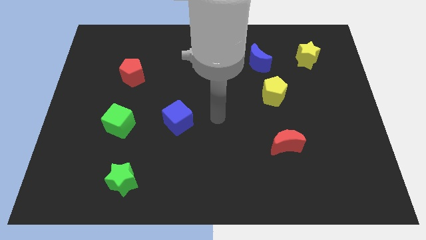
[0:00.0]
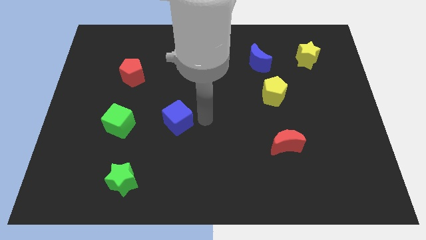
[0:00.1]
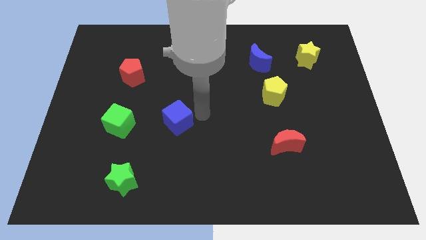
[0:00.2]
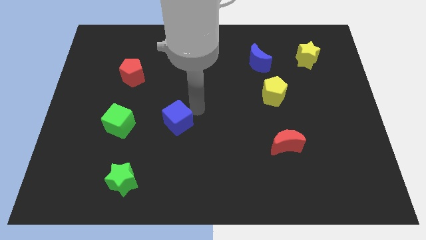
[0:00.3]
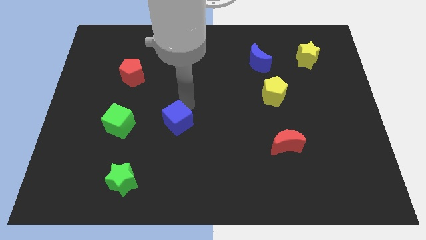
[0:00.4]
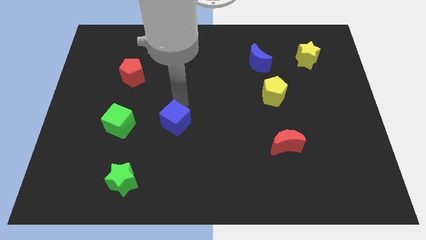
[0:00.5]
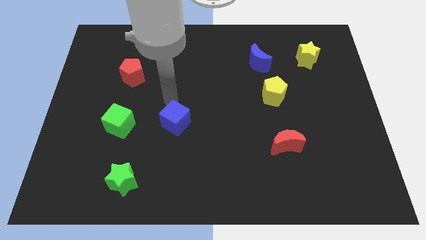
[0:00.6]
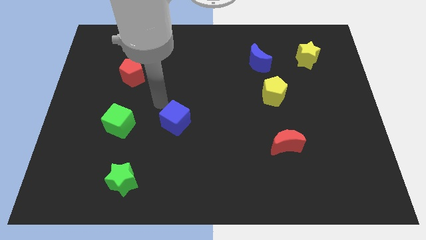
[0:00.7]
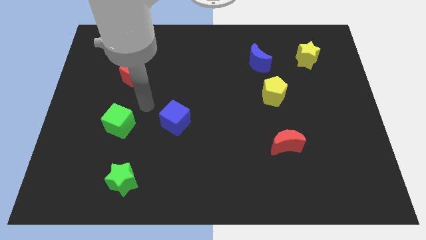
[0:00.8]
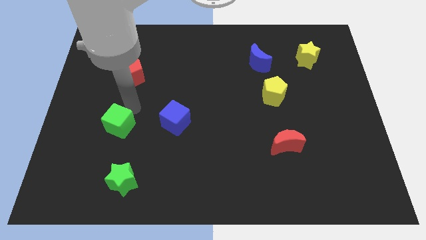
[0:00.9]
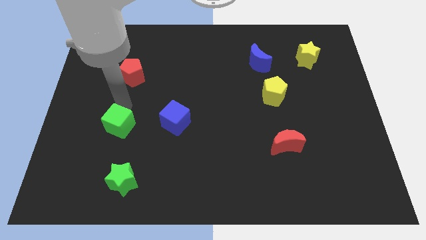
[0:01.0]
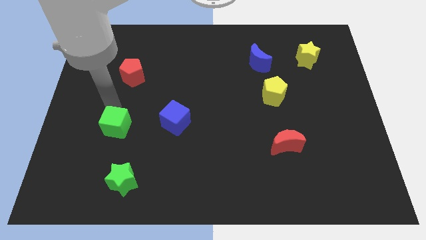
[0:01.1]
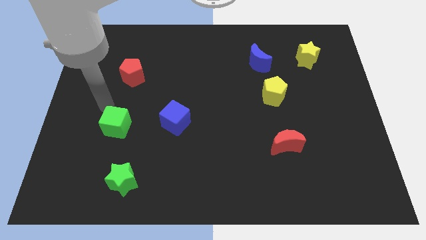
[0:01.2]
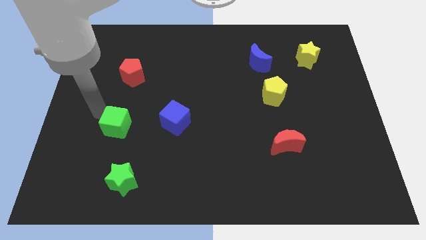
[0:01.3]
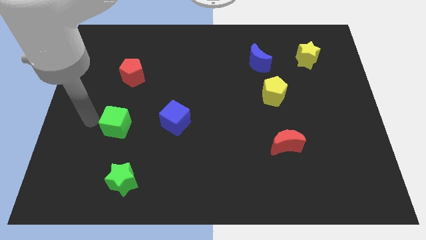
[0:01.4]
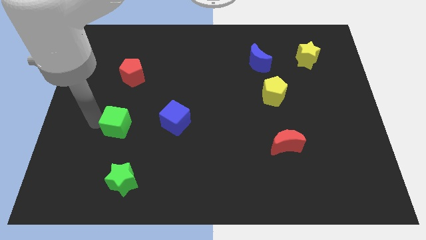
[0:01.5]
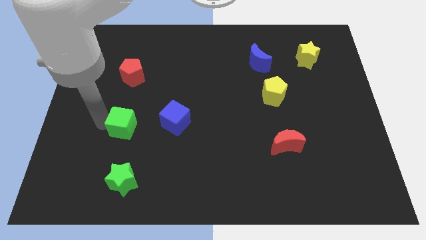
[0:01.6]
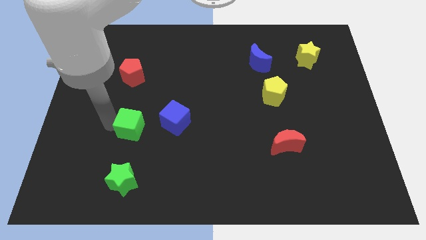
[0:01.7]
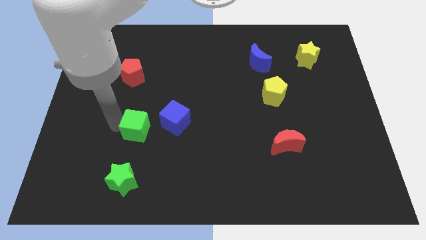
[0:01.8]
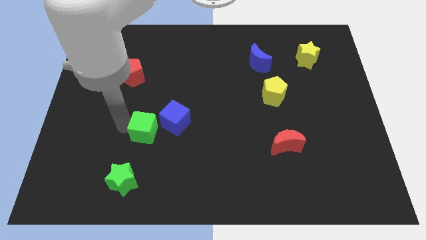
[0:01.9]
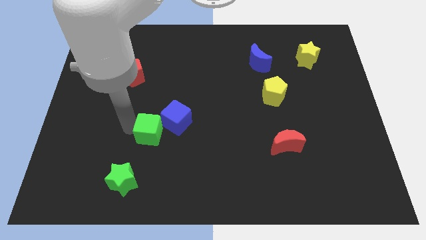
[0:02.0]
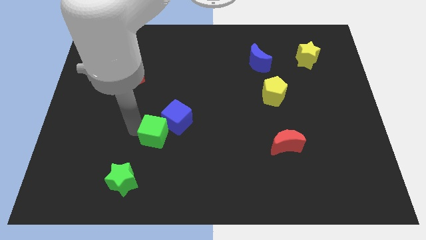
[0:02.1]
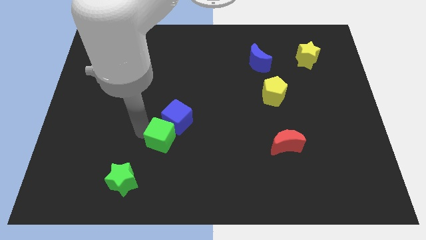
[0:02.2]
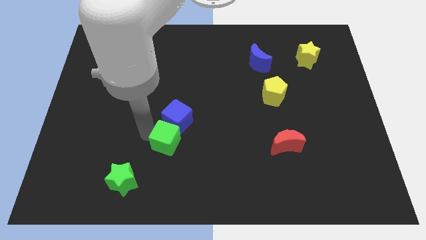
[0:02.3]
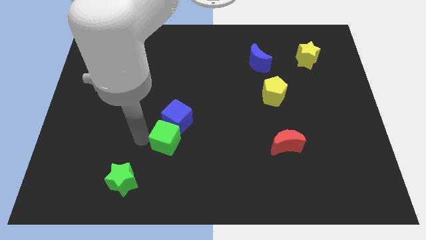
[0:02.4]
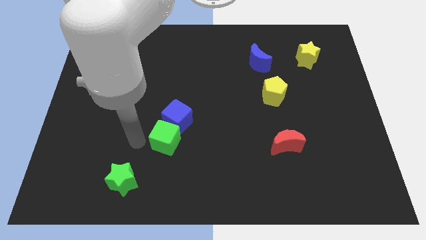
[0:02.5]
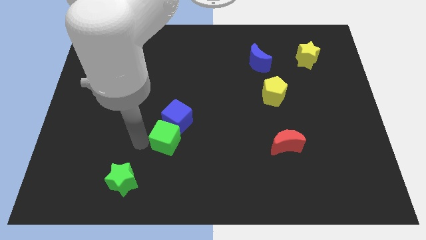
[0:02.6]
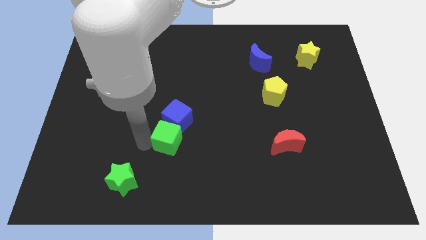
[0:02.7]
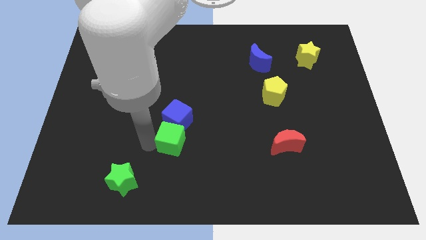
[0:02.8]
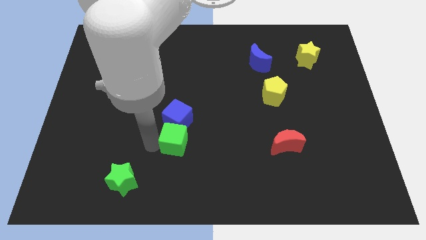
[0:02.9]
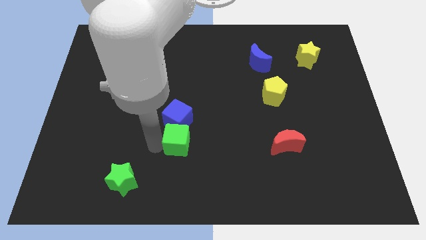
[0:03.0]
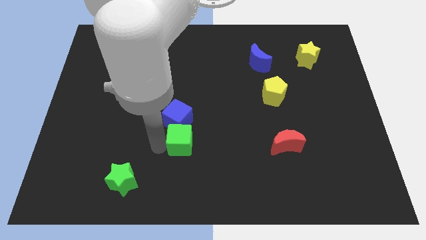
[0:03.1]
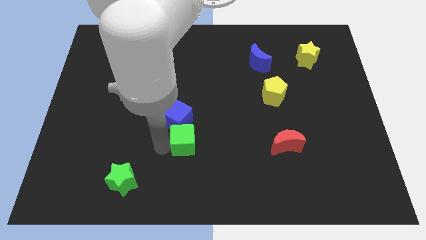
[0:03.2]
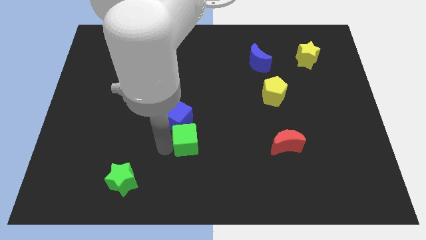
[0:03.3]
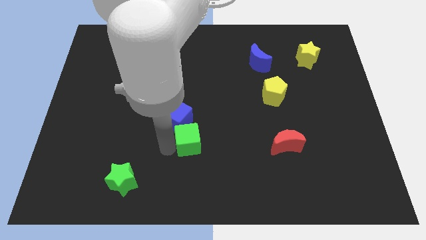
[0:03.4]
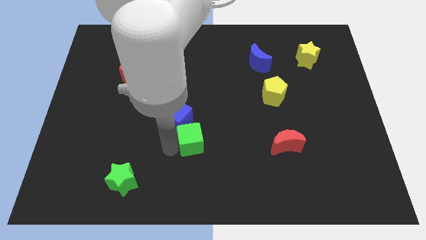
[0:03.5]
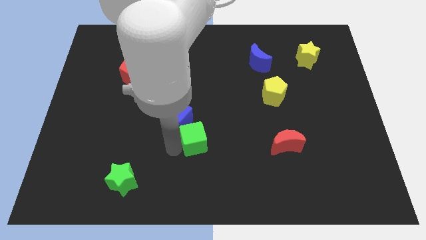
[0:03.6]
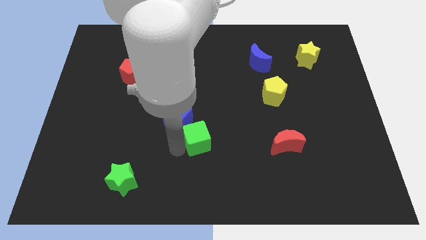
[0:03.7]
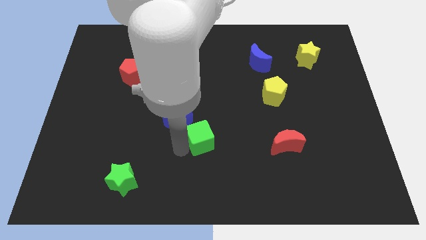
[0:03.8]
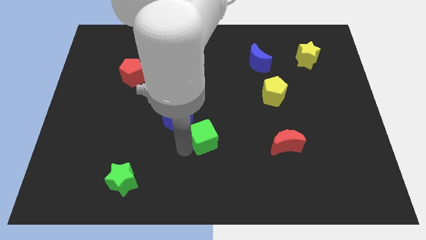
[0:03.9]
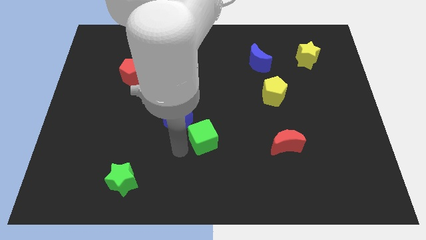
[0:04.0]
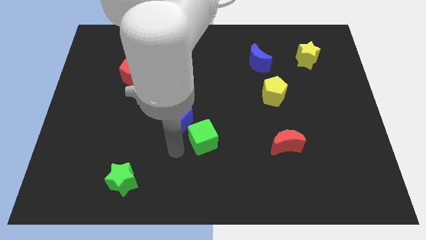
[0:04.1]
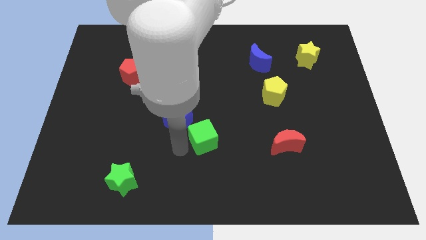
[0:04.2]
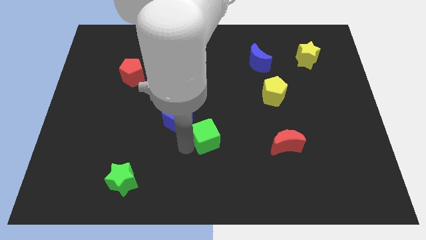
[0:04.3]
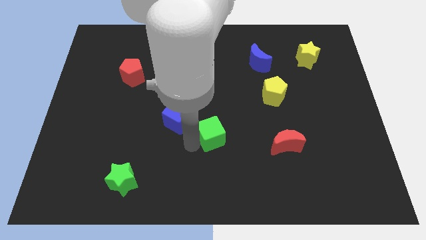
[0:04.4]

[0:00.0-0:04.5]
slide the green cube to the right

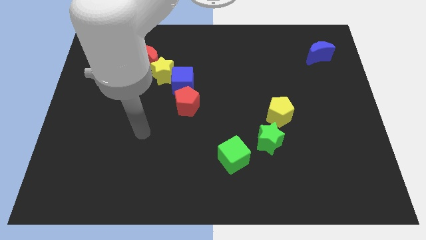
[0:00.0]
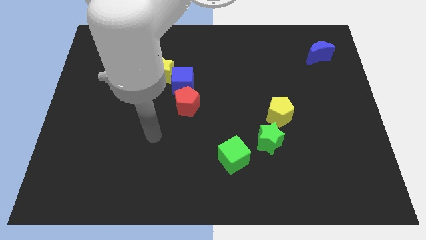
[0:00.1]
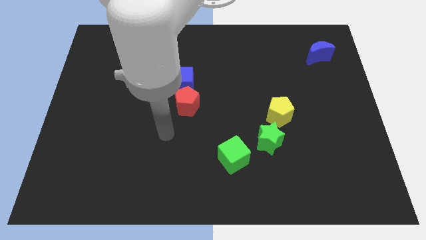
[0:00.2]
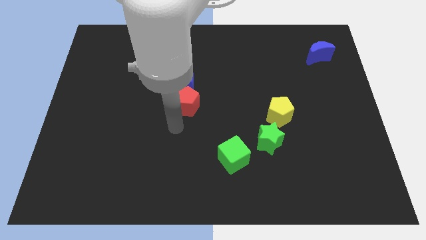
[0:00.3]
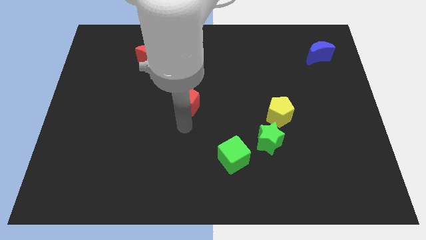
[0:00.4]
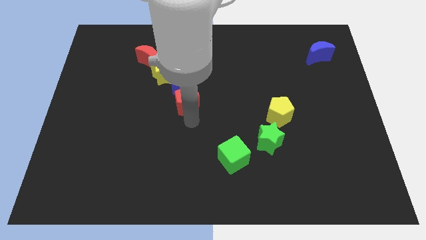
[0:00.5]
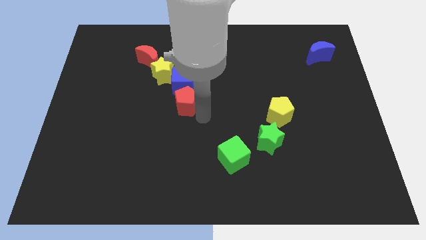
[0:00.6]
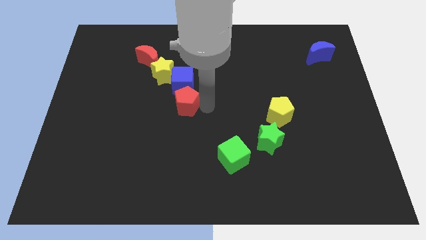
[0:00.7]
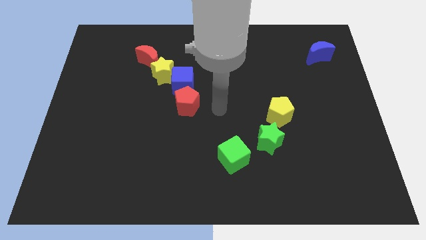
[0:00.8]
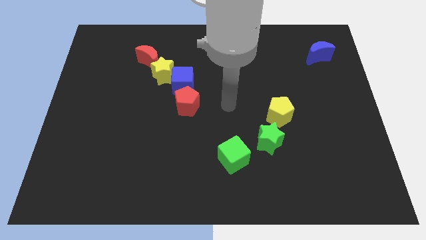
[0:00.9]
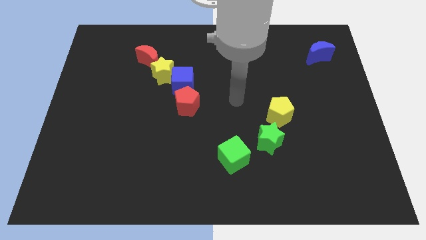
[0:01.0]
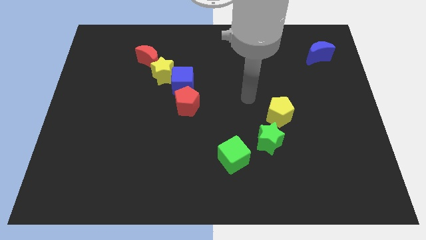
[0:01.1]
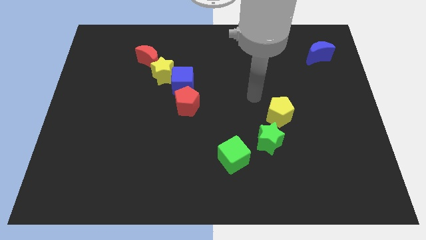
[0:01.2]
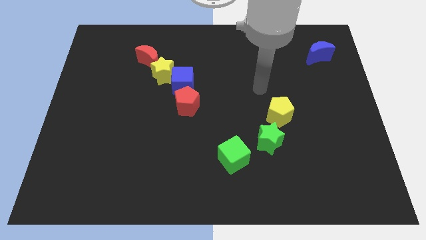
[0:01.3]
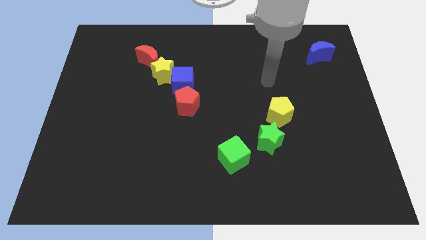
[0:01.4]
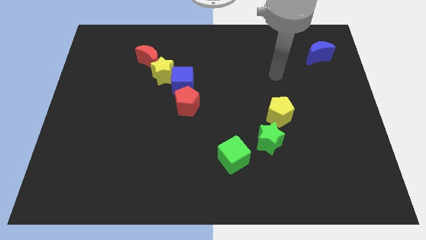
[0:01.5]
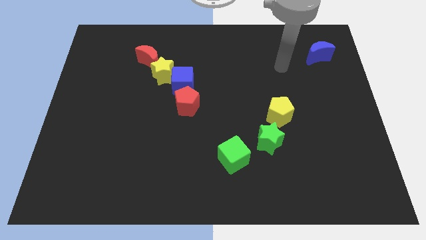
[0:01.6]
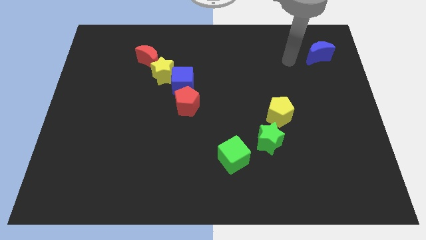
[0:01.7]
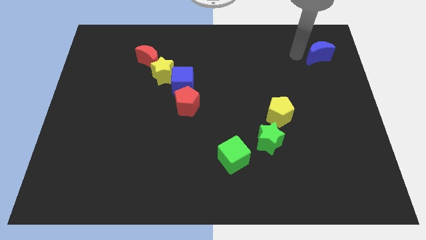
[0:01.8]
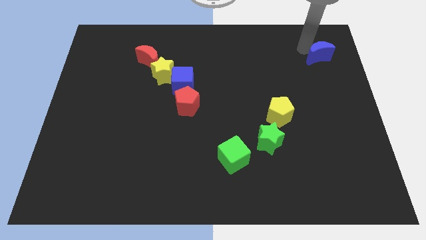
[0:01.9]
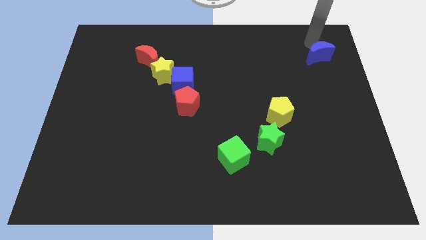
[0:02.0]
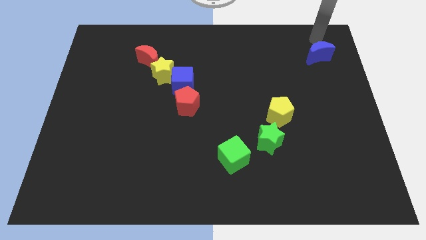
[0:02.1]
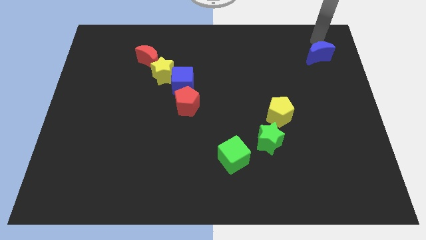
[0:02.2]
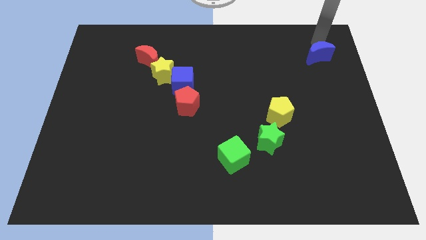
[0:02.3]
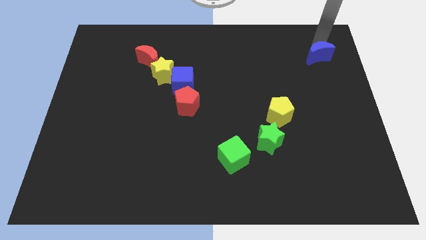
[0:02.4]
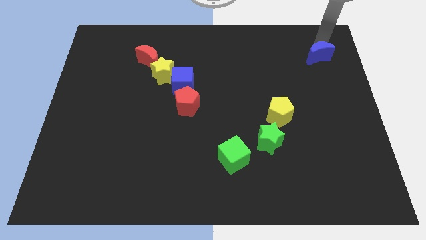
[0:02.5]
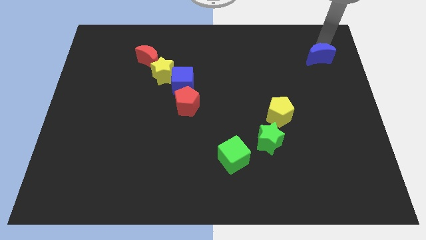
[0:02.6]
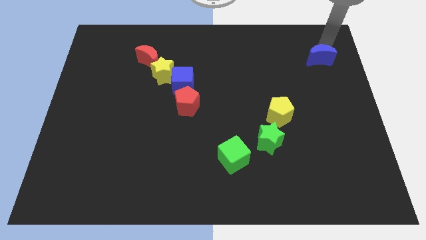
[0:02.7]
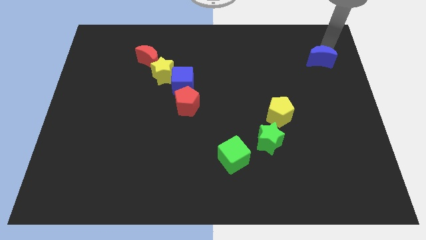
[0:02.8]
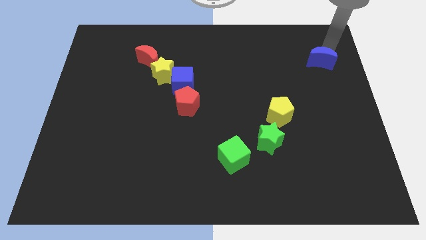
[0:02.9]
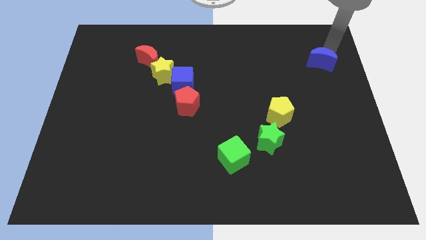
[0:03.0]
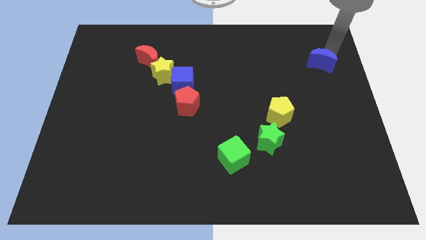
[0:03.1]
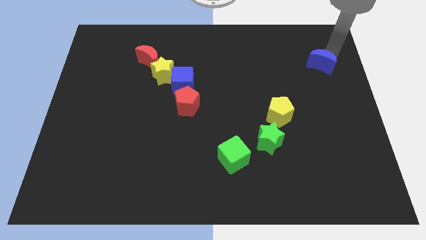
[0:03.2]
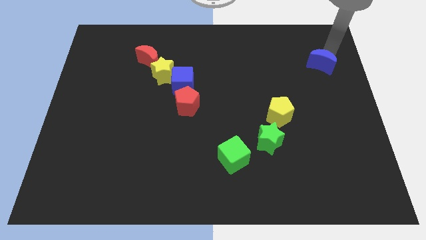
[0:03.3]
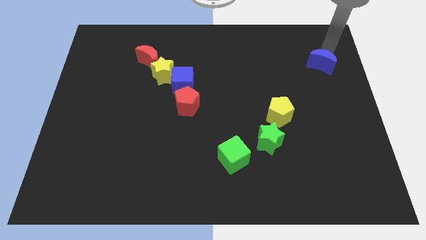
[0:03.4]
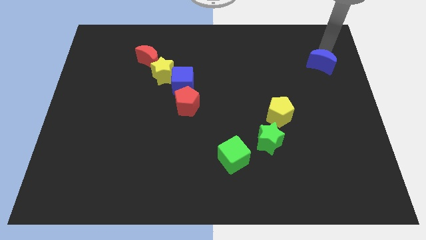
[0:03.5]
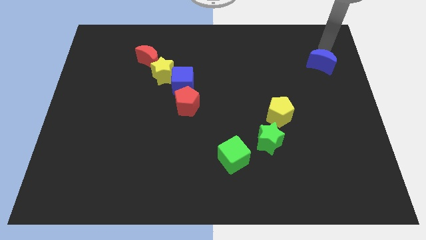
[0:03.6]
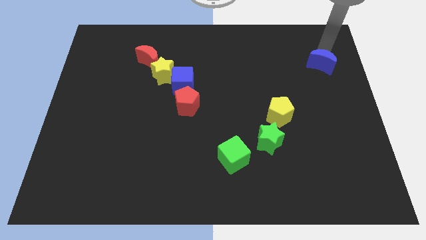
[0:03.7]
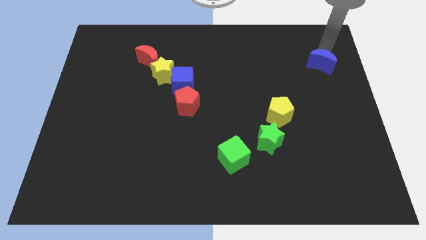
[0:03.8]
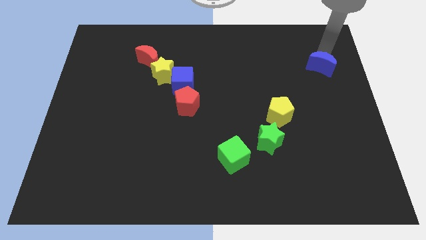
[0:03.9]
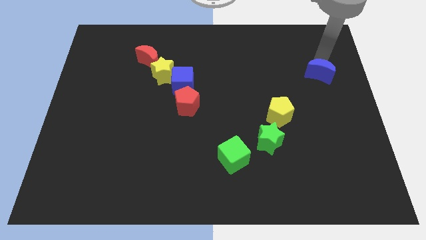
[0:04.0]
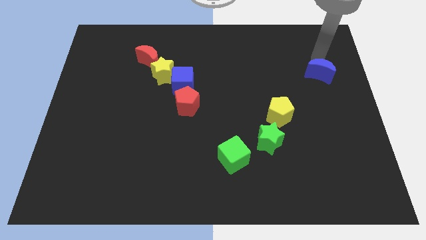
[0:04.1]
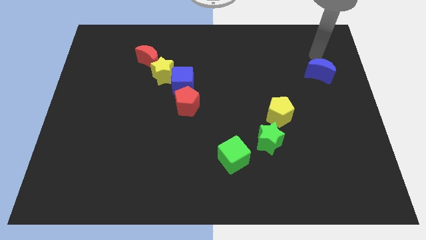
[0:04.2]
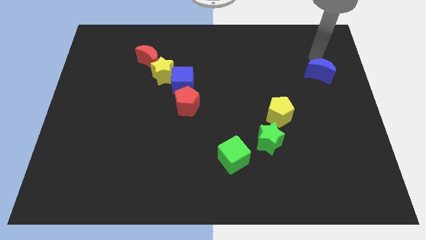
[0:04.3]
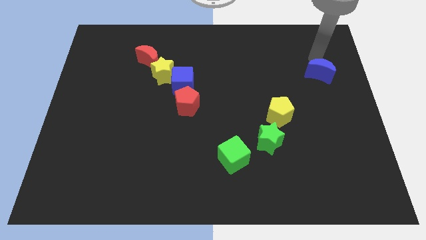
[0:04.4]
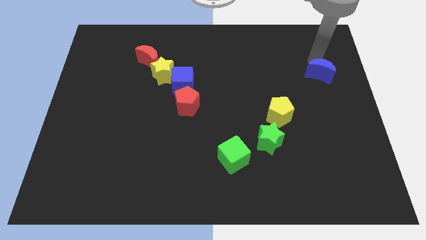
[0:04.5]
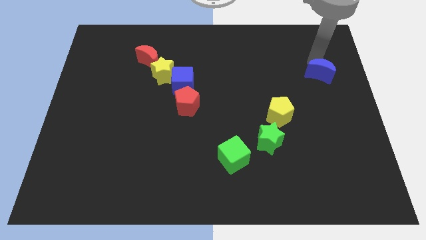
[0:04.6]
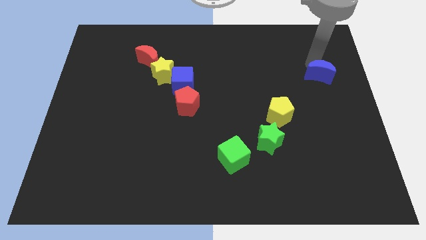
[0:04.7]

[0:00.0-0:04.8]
move the blue moon a little bit down
